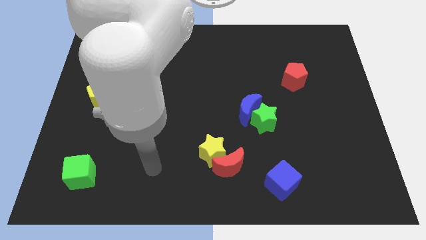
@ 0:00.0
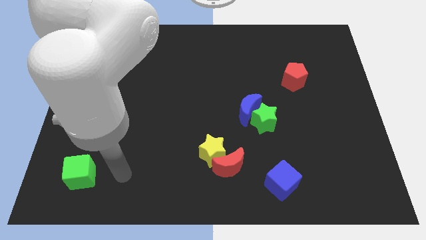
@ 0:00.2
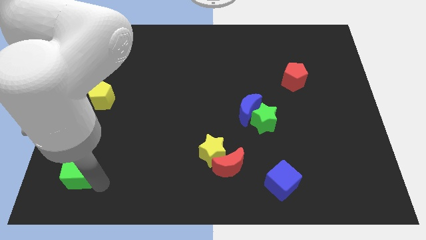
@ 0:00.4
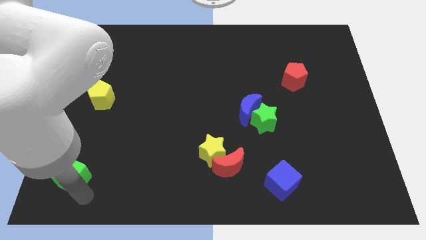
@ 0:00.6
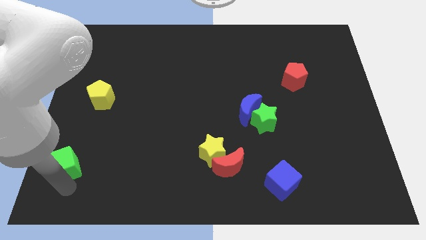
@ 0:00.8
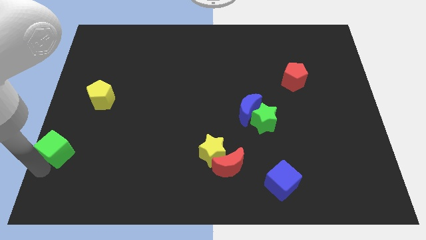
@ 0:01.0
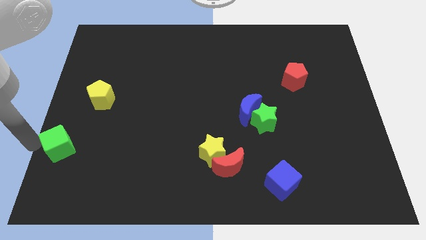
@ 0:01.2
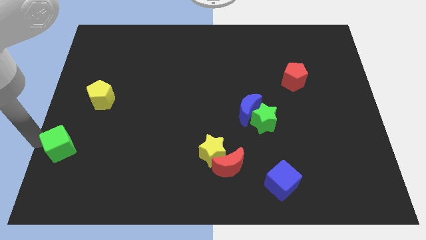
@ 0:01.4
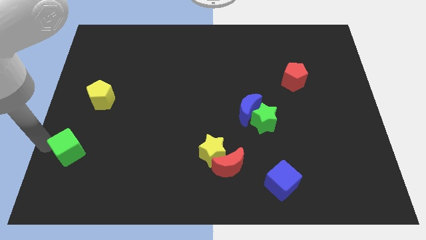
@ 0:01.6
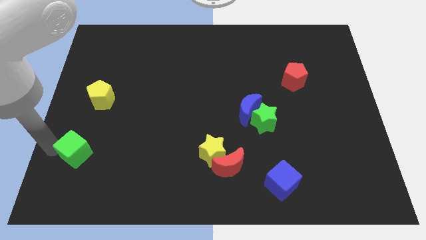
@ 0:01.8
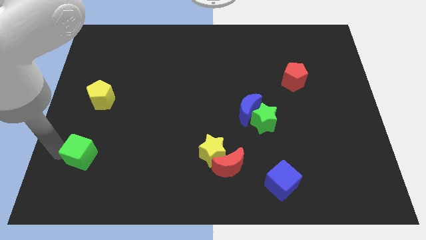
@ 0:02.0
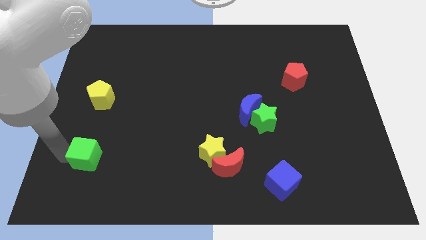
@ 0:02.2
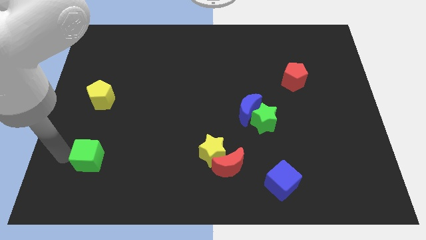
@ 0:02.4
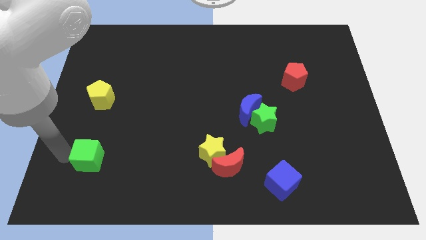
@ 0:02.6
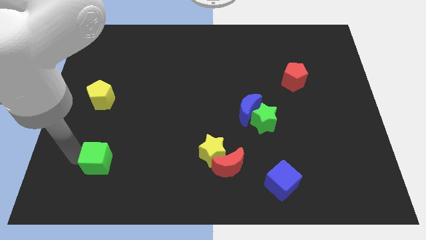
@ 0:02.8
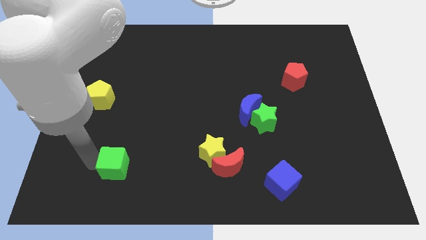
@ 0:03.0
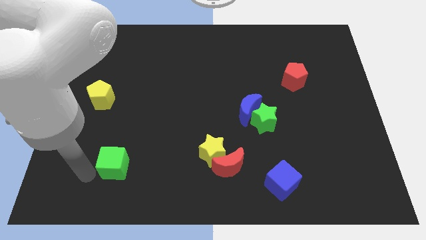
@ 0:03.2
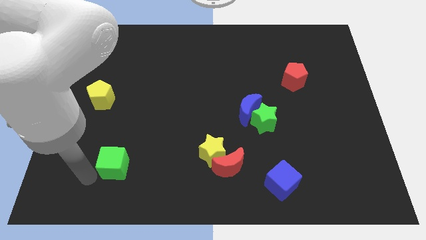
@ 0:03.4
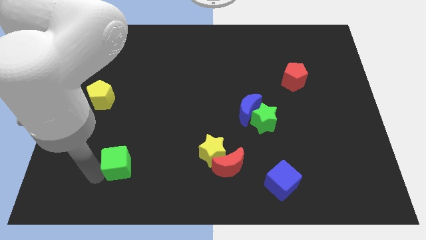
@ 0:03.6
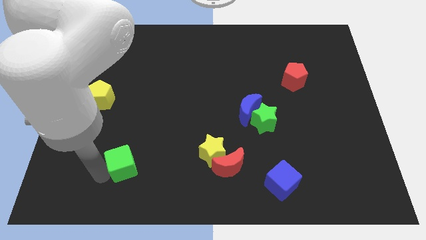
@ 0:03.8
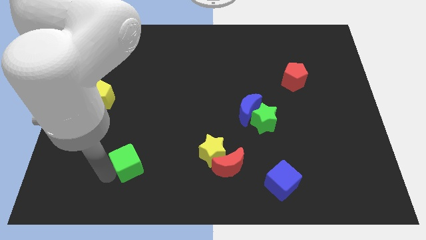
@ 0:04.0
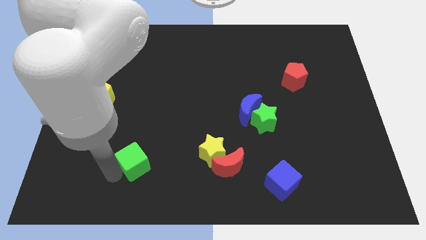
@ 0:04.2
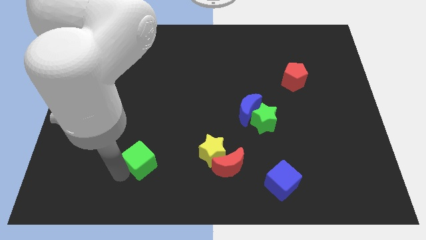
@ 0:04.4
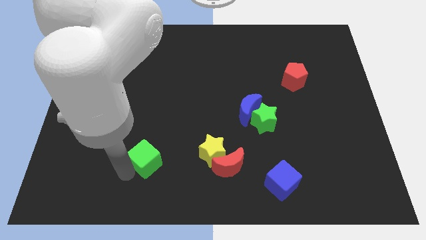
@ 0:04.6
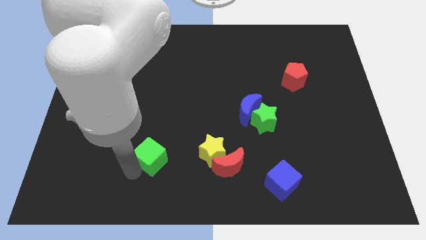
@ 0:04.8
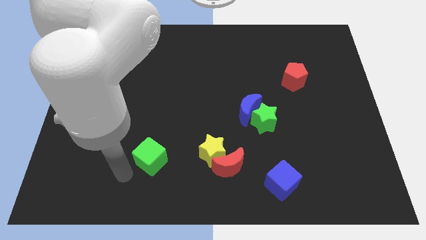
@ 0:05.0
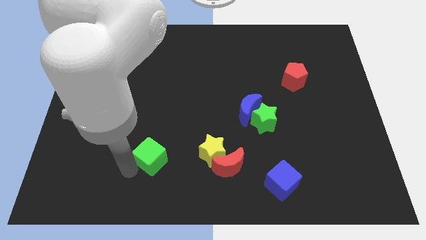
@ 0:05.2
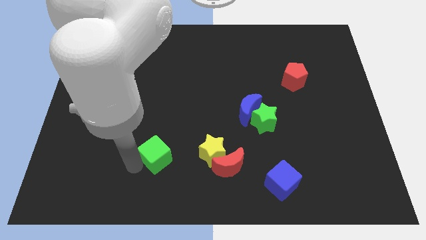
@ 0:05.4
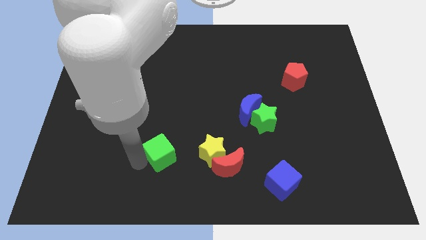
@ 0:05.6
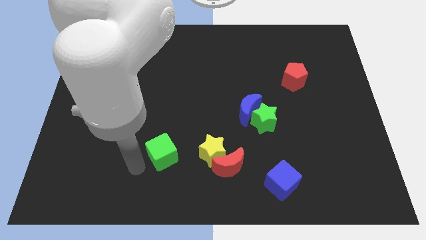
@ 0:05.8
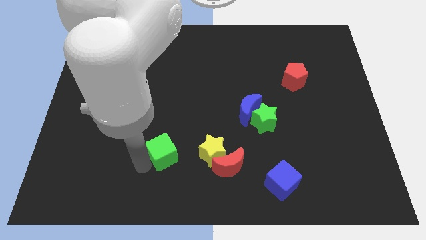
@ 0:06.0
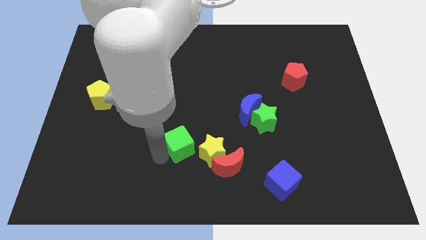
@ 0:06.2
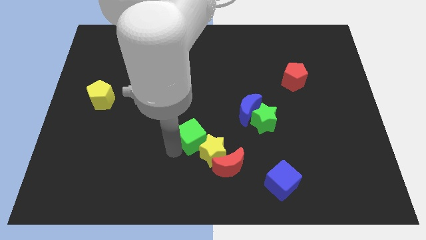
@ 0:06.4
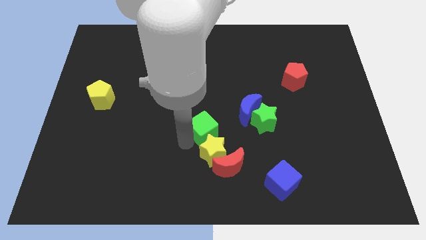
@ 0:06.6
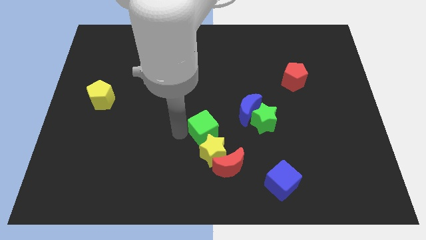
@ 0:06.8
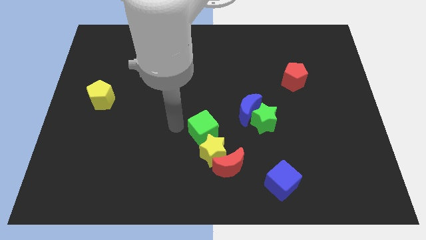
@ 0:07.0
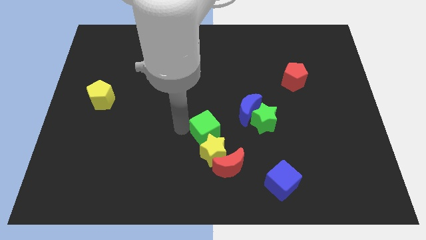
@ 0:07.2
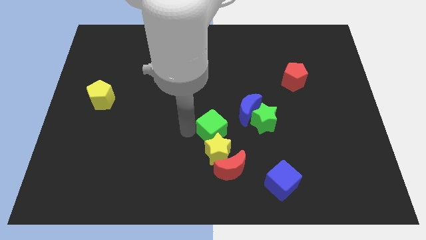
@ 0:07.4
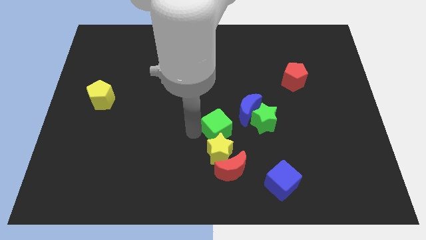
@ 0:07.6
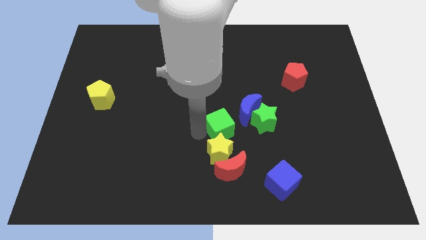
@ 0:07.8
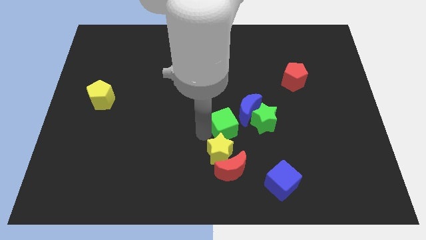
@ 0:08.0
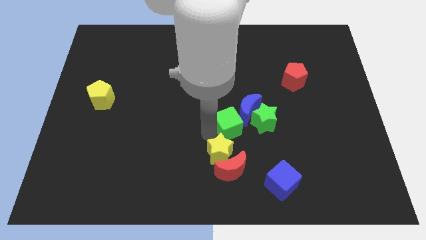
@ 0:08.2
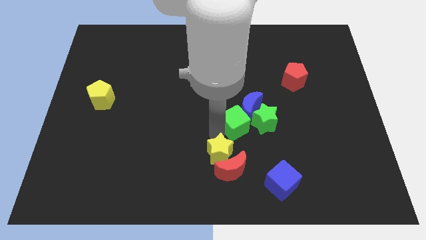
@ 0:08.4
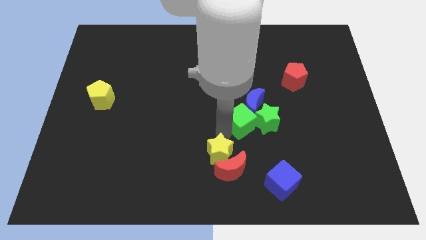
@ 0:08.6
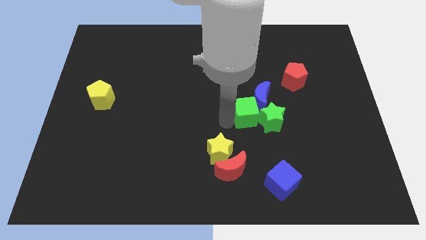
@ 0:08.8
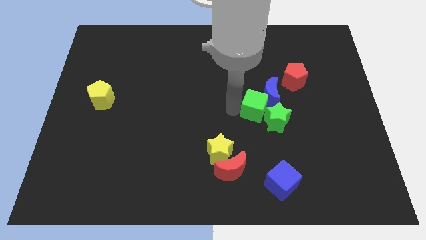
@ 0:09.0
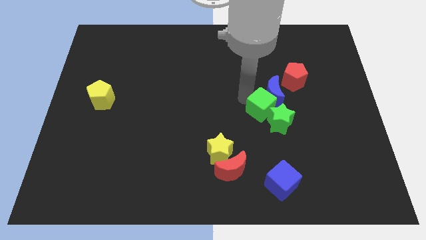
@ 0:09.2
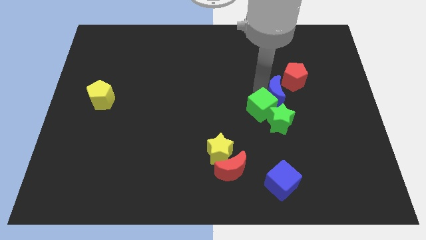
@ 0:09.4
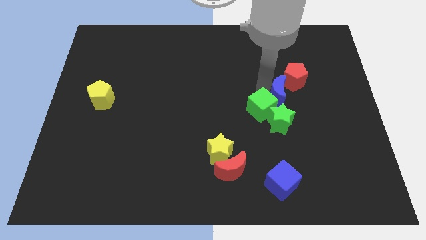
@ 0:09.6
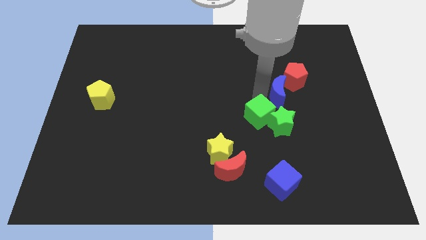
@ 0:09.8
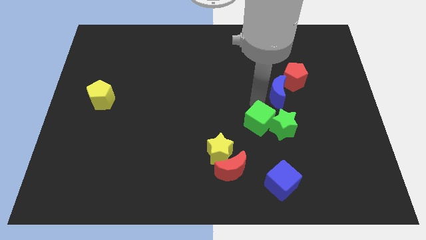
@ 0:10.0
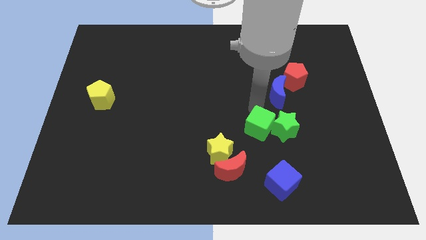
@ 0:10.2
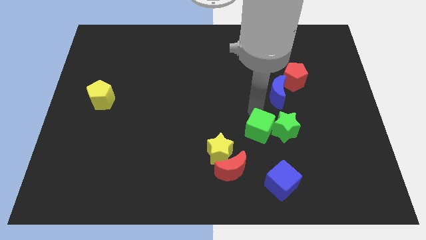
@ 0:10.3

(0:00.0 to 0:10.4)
put the green cube diagonally up and to the right of the red moon

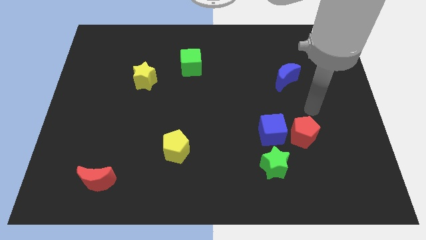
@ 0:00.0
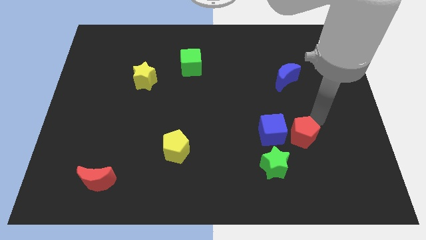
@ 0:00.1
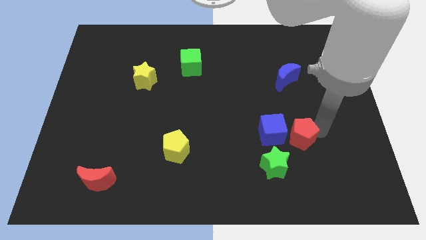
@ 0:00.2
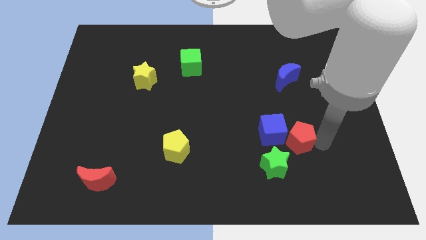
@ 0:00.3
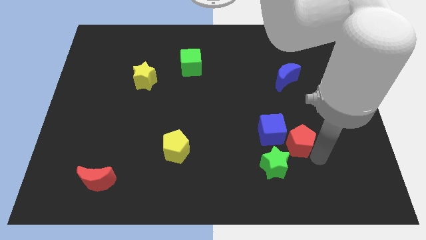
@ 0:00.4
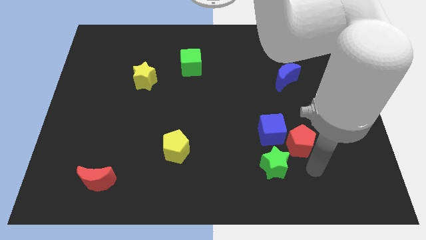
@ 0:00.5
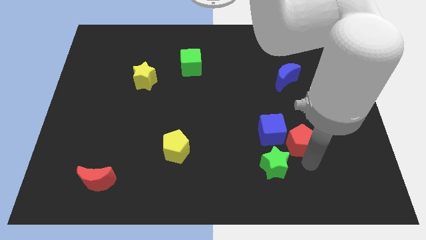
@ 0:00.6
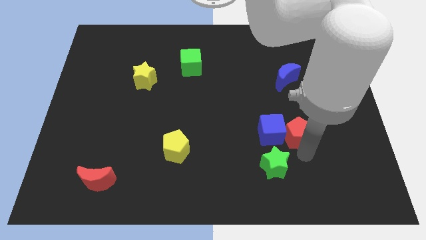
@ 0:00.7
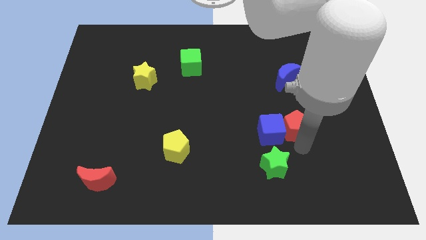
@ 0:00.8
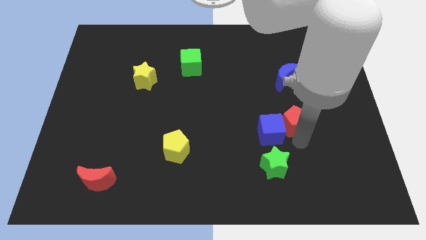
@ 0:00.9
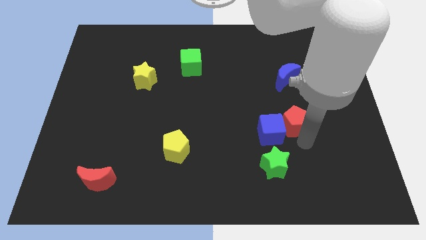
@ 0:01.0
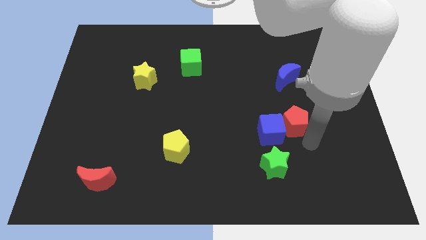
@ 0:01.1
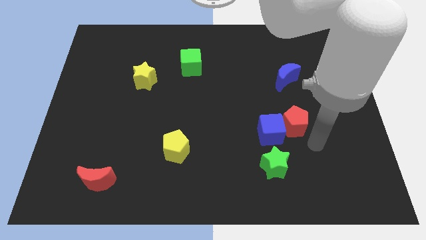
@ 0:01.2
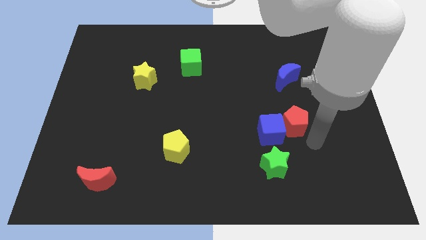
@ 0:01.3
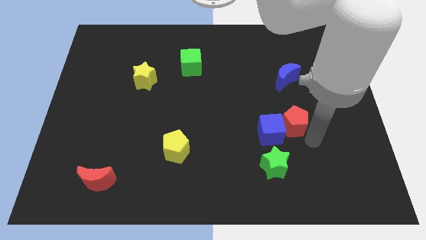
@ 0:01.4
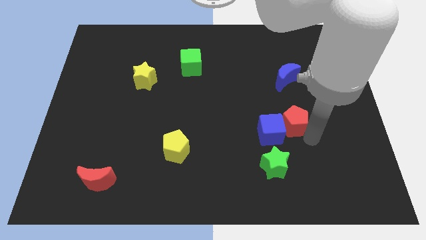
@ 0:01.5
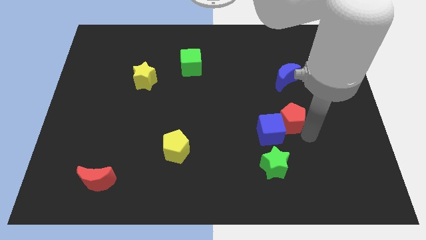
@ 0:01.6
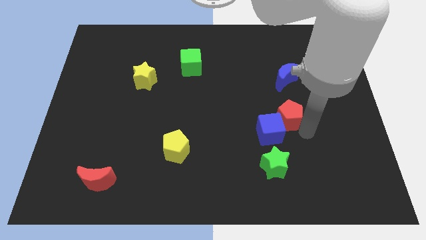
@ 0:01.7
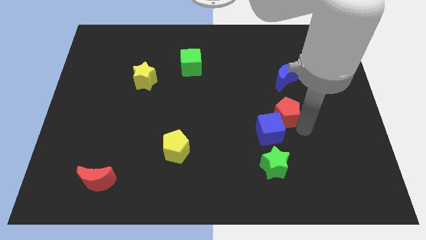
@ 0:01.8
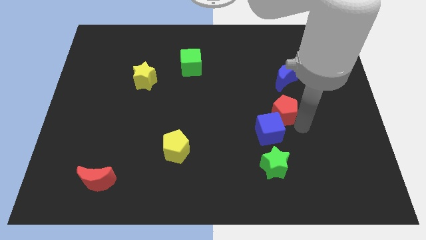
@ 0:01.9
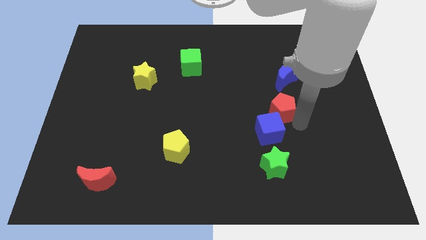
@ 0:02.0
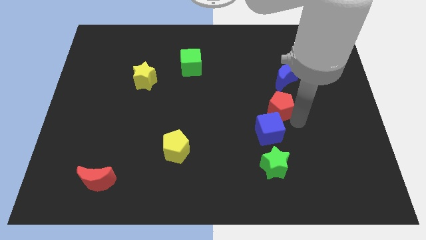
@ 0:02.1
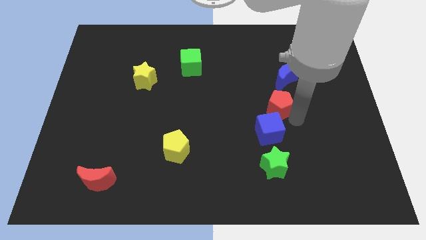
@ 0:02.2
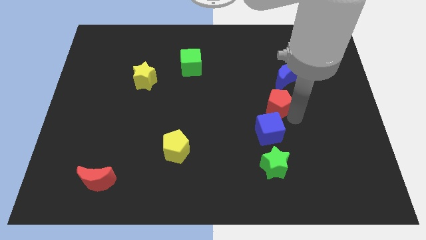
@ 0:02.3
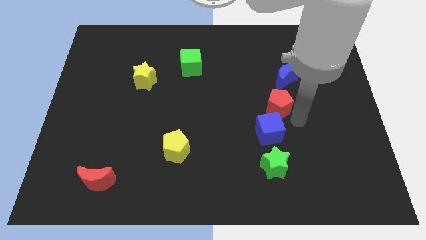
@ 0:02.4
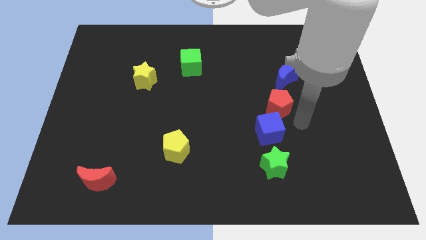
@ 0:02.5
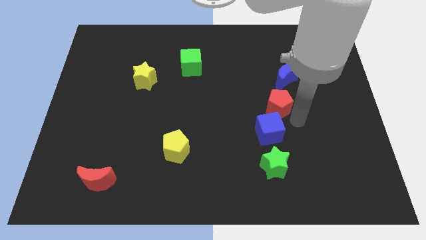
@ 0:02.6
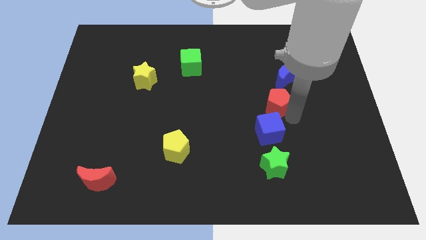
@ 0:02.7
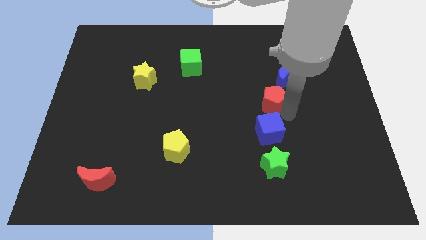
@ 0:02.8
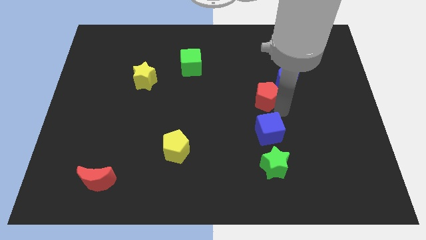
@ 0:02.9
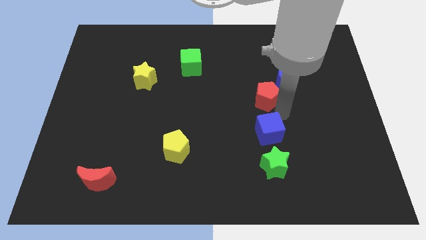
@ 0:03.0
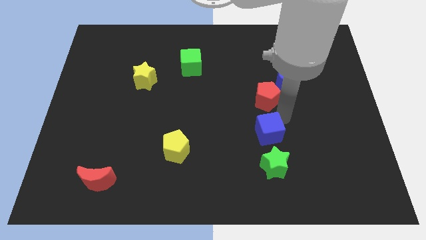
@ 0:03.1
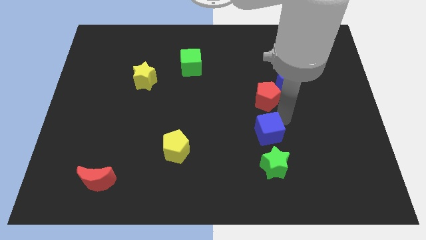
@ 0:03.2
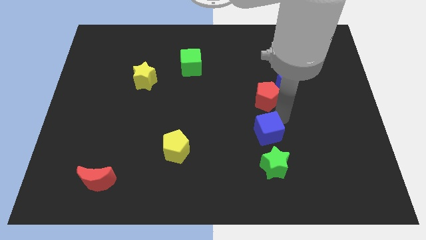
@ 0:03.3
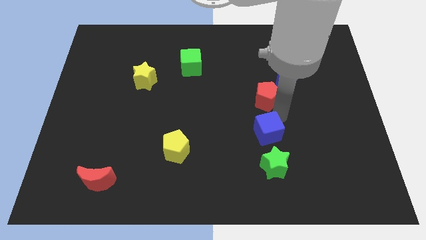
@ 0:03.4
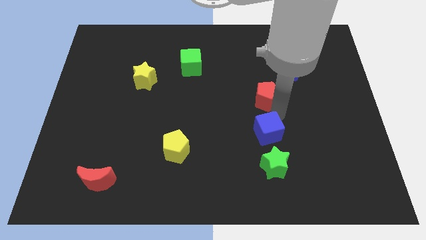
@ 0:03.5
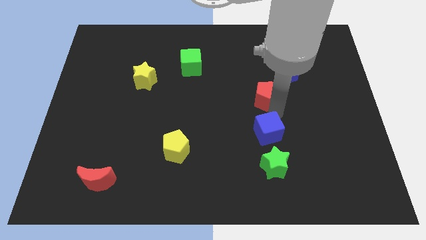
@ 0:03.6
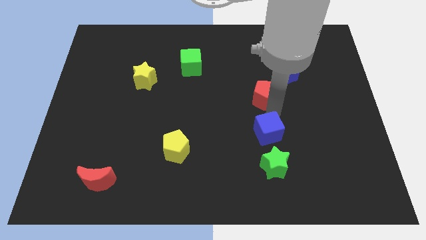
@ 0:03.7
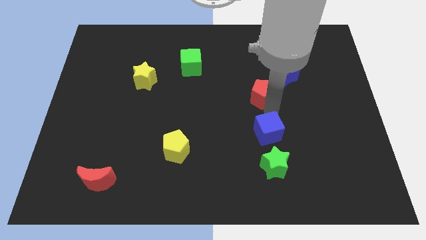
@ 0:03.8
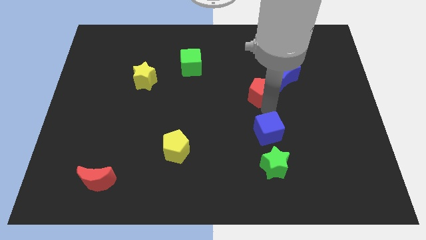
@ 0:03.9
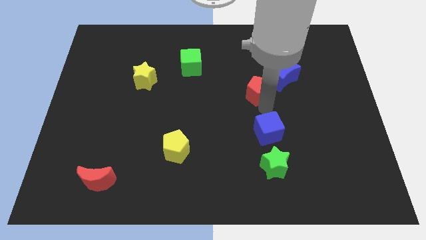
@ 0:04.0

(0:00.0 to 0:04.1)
move the red pentagon to the left of the blue moon
